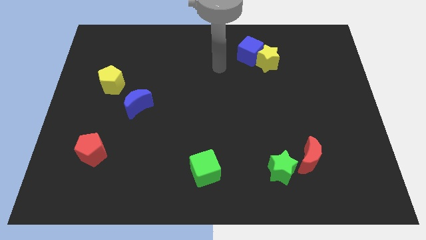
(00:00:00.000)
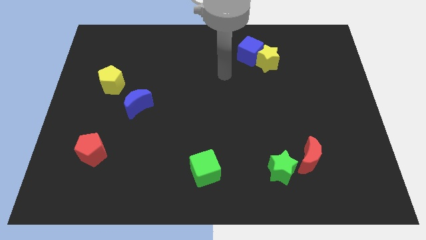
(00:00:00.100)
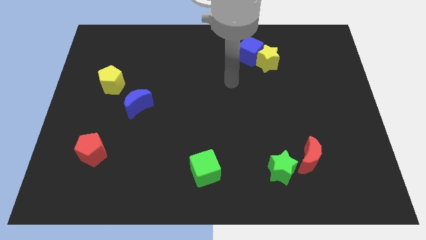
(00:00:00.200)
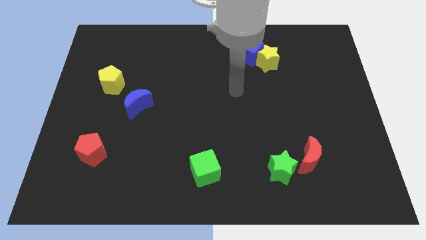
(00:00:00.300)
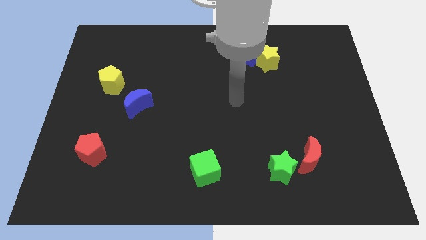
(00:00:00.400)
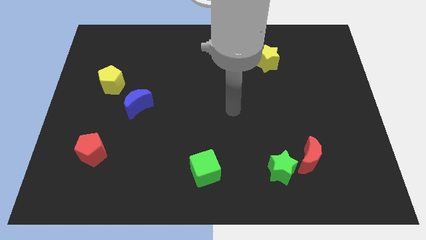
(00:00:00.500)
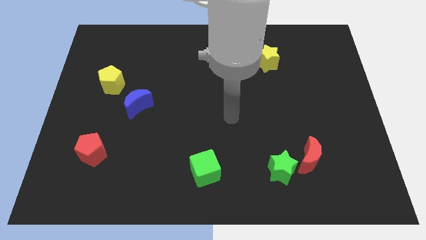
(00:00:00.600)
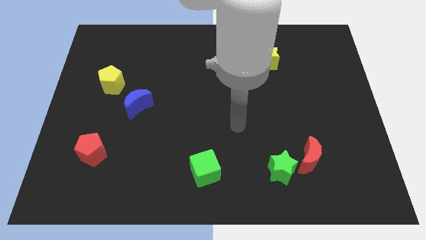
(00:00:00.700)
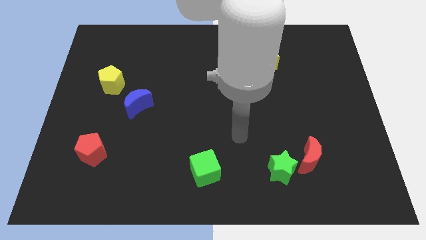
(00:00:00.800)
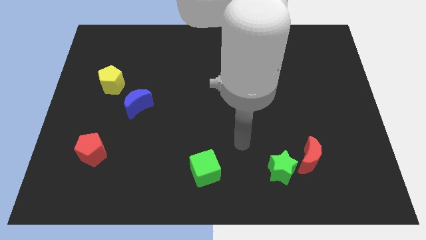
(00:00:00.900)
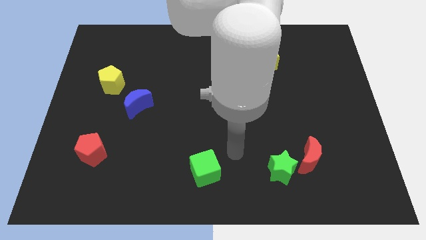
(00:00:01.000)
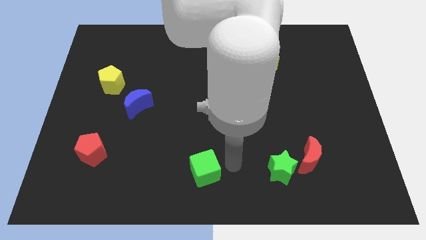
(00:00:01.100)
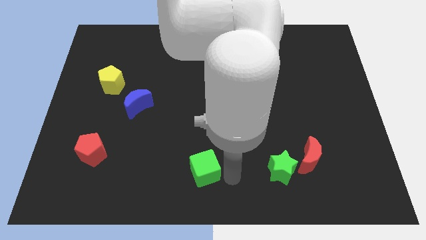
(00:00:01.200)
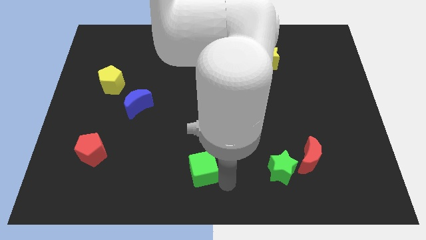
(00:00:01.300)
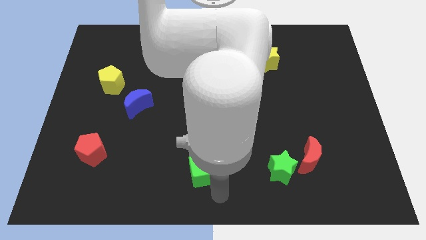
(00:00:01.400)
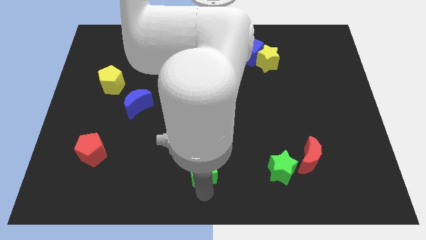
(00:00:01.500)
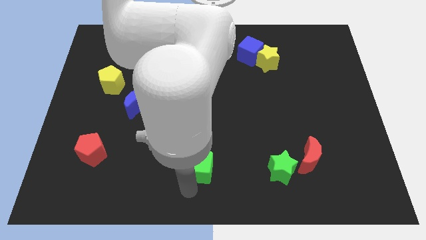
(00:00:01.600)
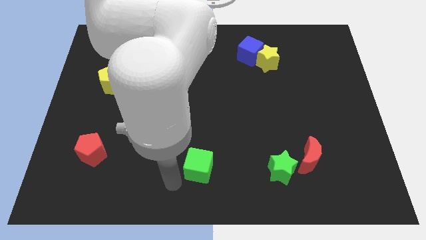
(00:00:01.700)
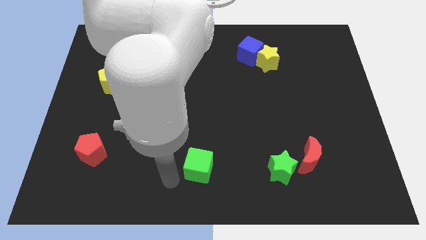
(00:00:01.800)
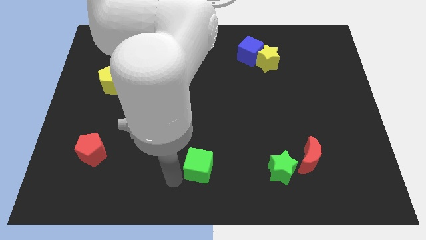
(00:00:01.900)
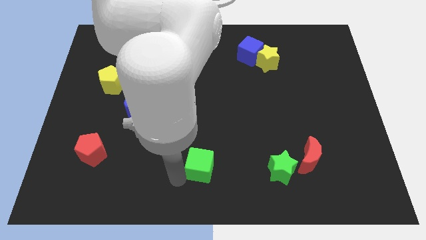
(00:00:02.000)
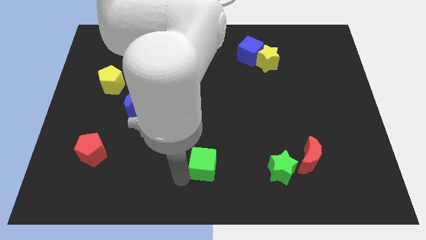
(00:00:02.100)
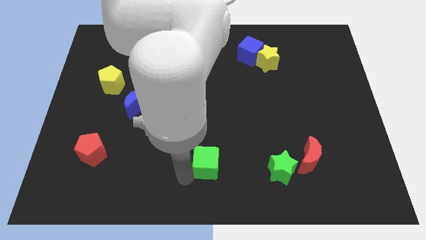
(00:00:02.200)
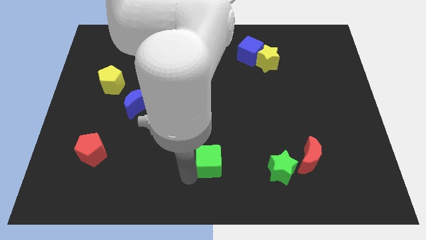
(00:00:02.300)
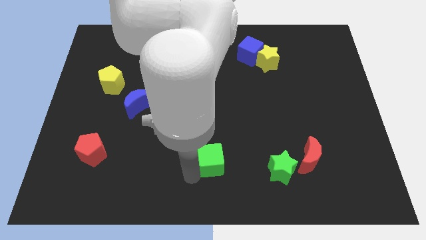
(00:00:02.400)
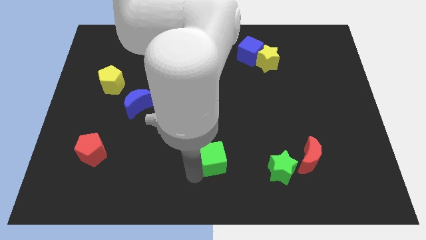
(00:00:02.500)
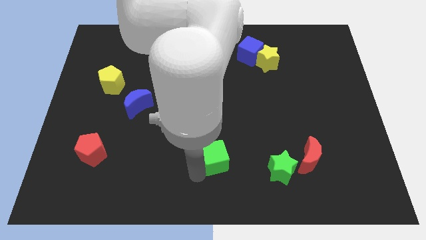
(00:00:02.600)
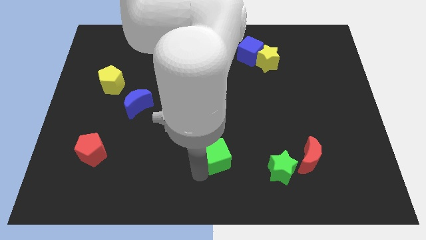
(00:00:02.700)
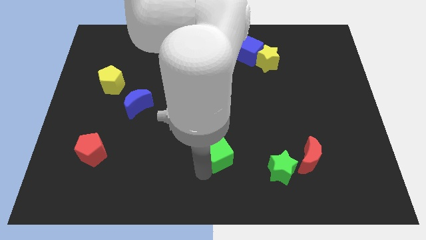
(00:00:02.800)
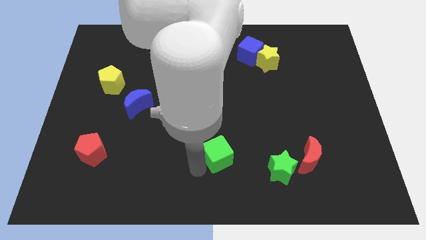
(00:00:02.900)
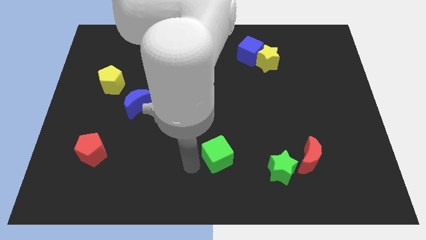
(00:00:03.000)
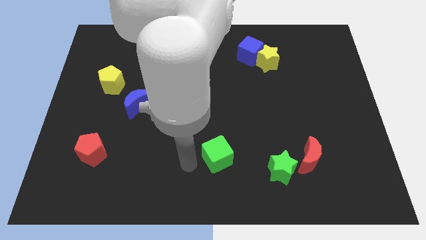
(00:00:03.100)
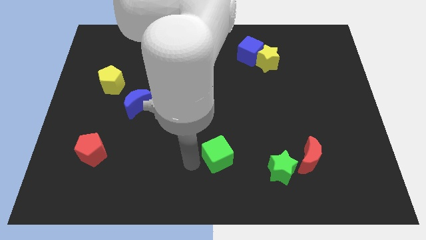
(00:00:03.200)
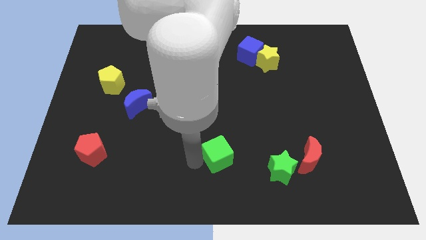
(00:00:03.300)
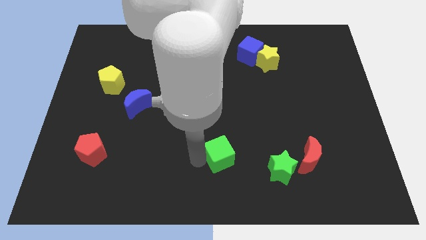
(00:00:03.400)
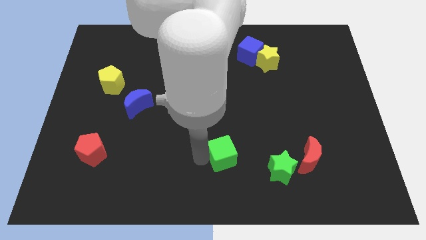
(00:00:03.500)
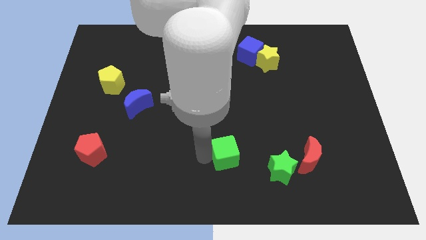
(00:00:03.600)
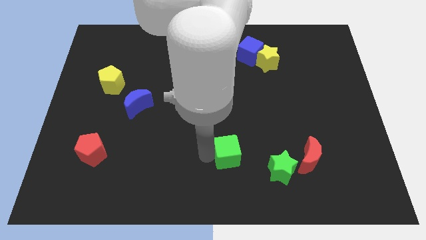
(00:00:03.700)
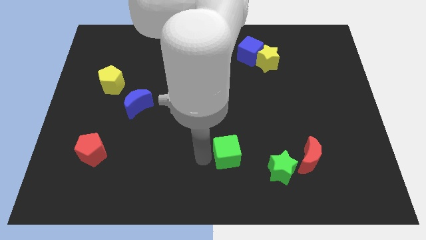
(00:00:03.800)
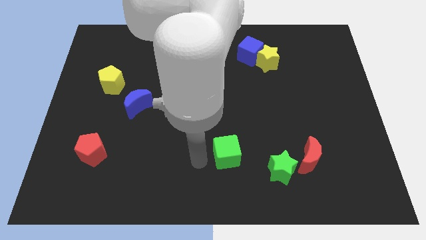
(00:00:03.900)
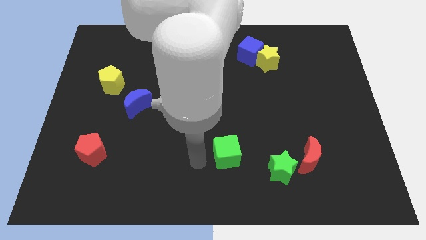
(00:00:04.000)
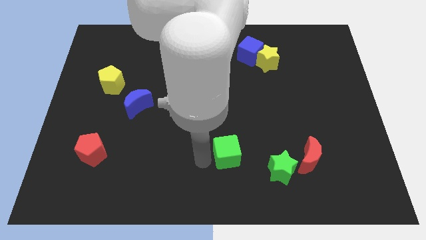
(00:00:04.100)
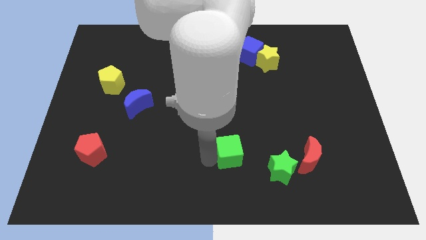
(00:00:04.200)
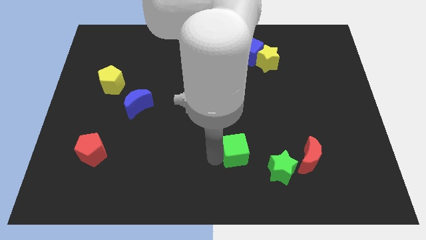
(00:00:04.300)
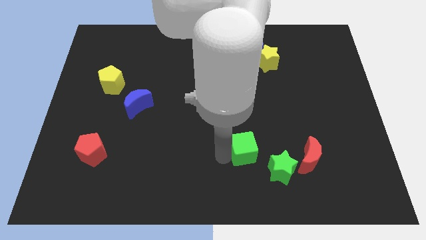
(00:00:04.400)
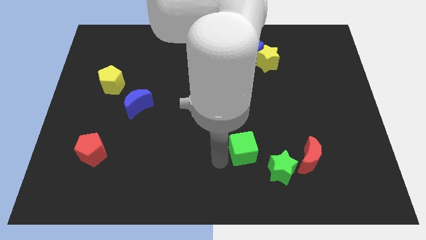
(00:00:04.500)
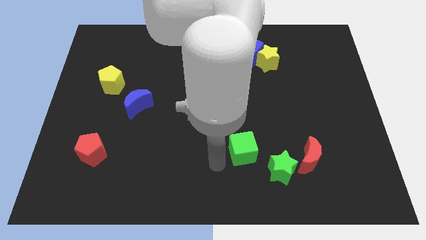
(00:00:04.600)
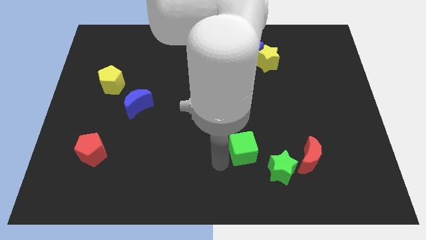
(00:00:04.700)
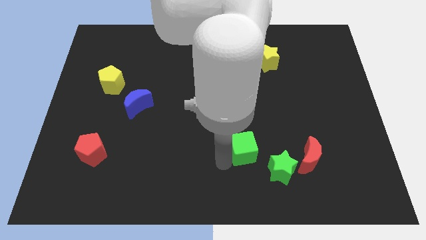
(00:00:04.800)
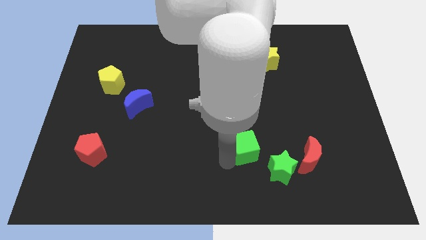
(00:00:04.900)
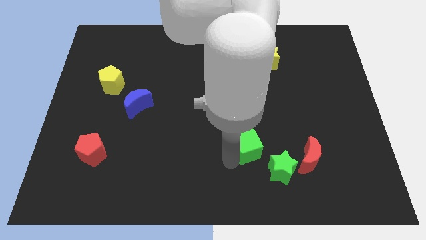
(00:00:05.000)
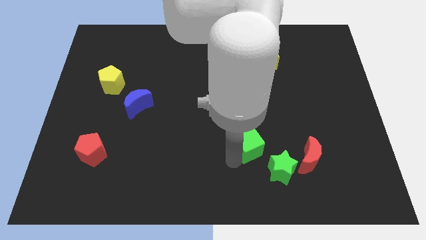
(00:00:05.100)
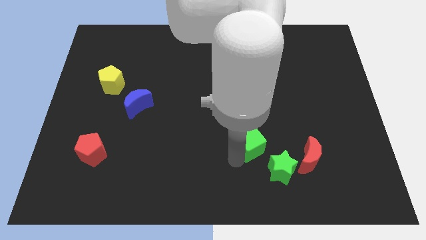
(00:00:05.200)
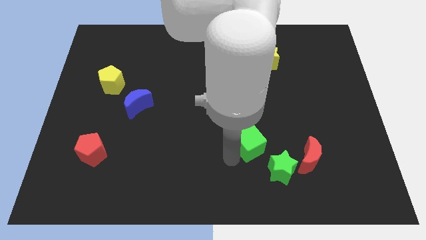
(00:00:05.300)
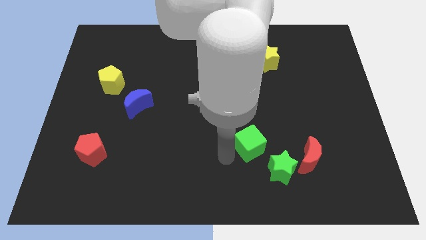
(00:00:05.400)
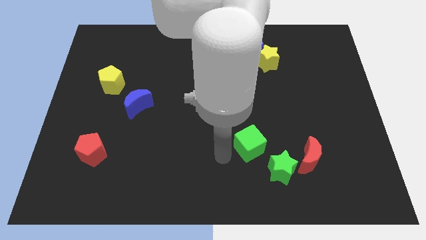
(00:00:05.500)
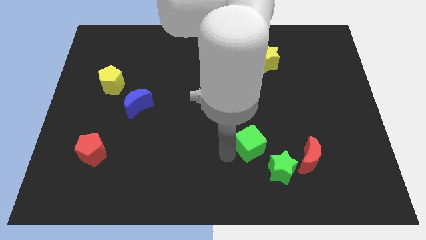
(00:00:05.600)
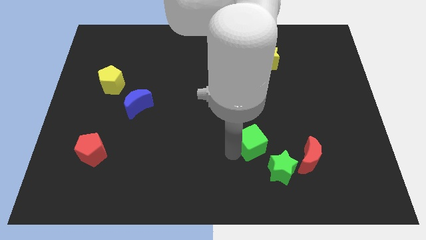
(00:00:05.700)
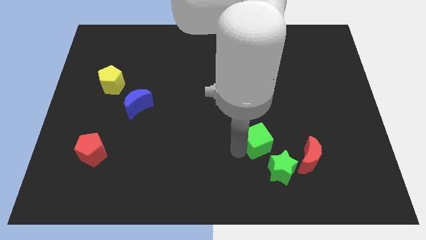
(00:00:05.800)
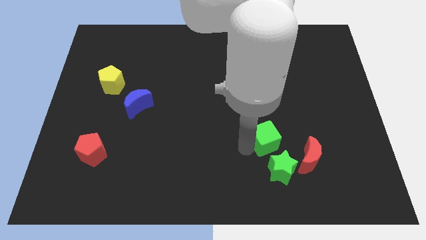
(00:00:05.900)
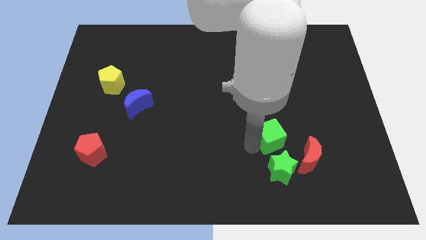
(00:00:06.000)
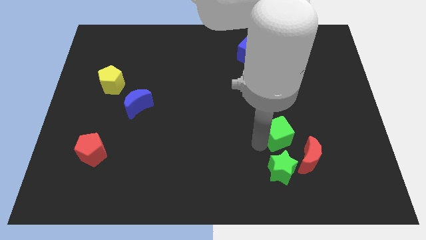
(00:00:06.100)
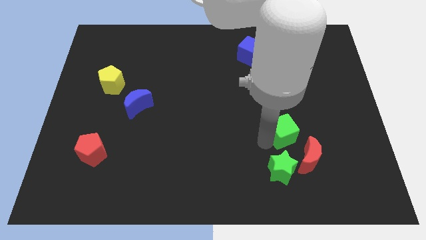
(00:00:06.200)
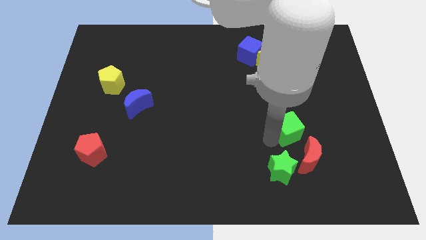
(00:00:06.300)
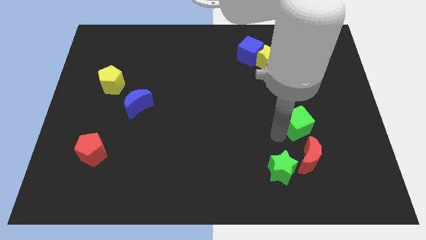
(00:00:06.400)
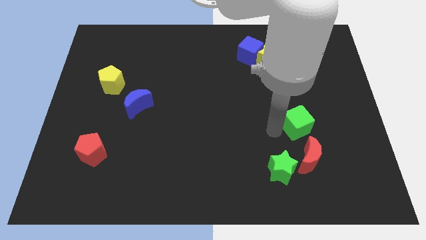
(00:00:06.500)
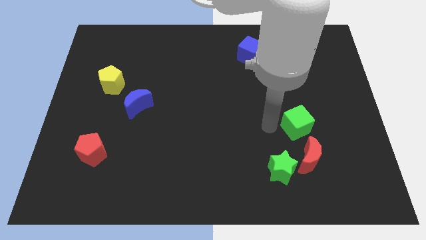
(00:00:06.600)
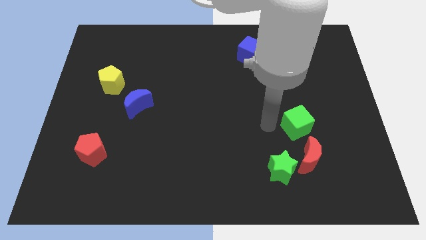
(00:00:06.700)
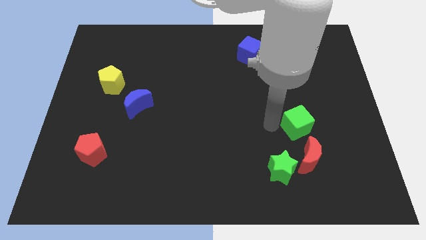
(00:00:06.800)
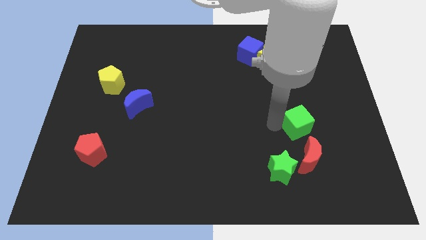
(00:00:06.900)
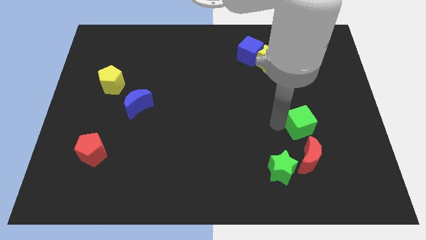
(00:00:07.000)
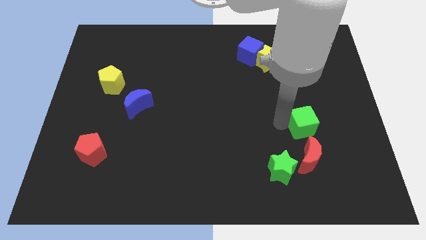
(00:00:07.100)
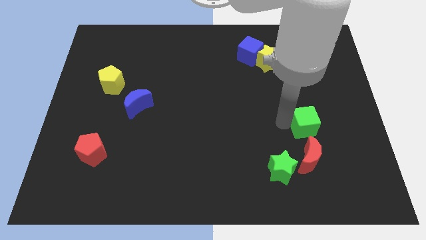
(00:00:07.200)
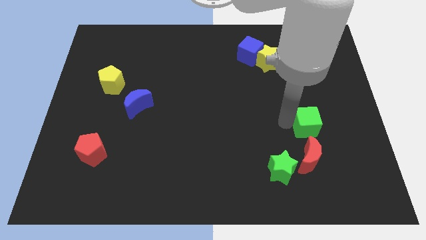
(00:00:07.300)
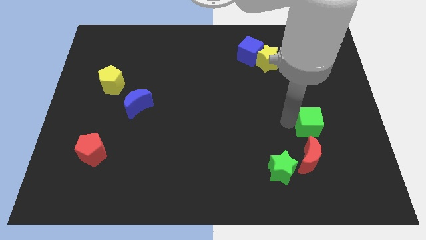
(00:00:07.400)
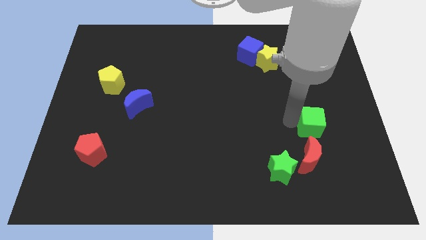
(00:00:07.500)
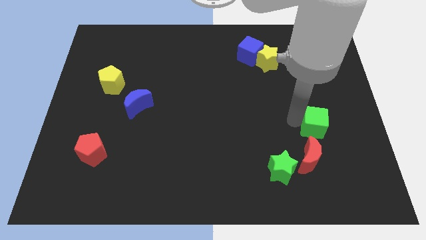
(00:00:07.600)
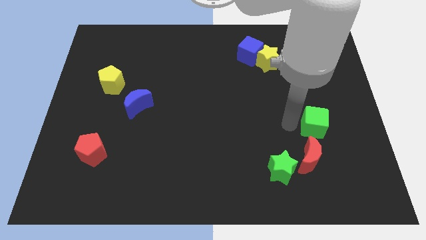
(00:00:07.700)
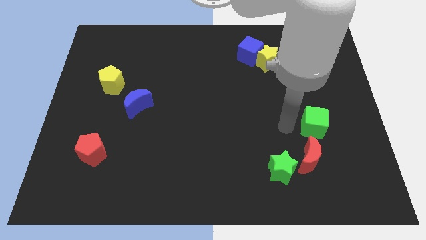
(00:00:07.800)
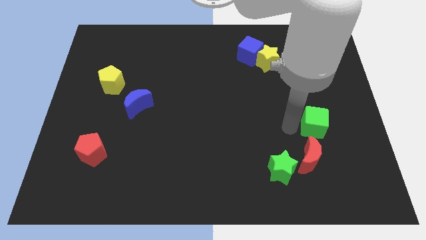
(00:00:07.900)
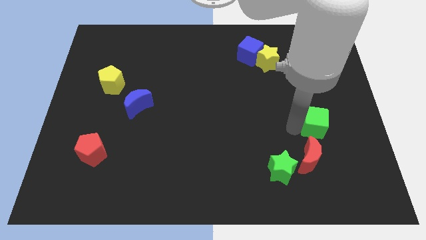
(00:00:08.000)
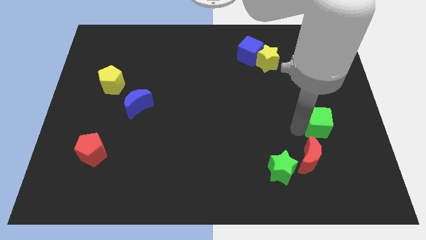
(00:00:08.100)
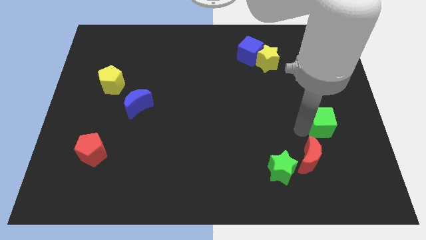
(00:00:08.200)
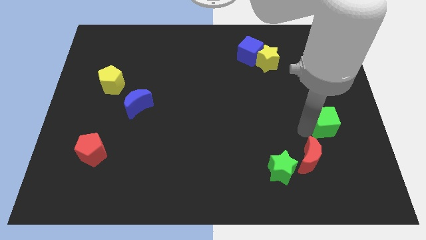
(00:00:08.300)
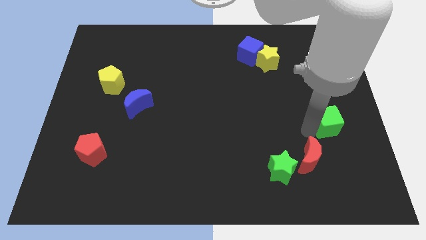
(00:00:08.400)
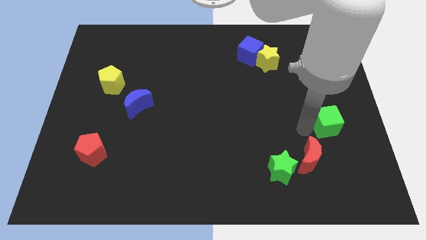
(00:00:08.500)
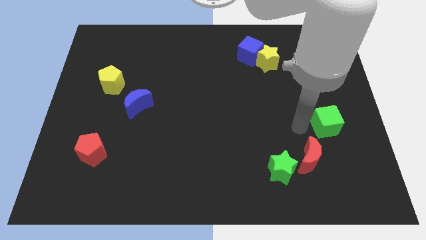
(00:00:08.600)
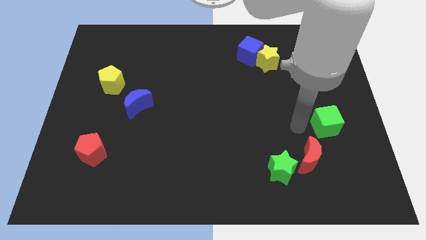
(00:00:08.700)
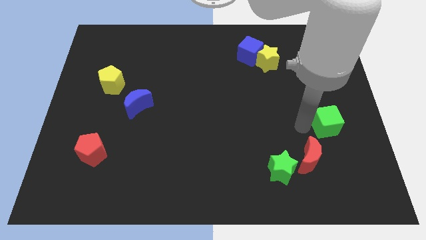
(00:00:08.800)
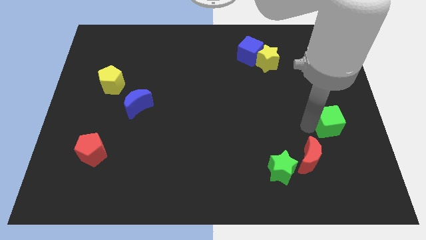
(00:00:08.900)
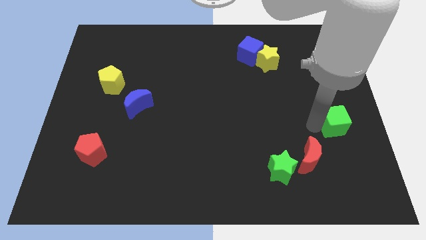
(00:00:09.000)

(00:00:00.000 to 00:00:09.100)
push the green cube to the center right
